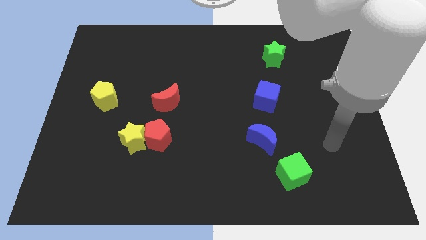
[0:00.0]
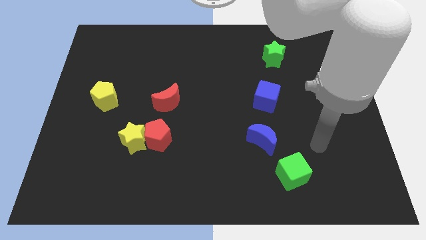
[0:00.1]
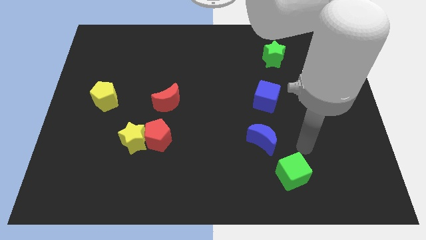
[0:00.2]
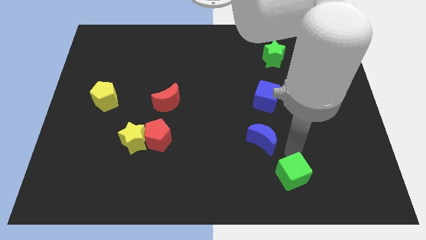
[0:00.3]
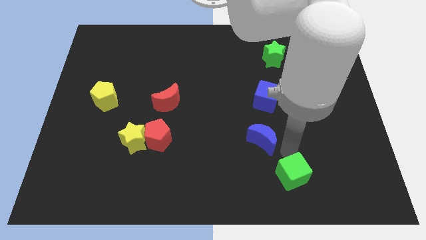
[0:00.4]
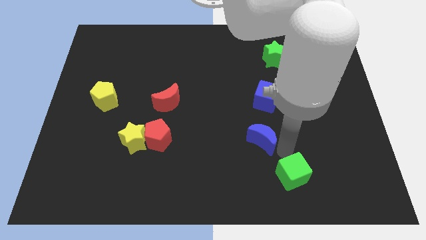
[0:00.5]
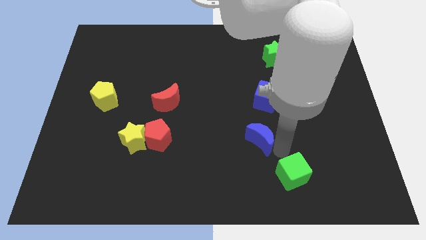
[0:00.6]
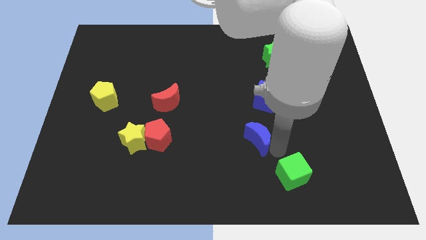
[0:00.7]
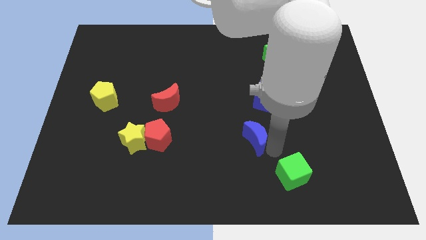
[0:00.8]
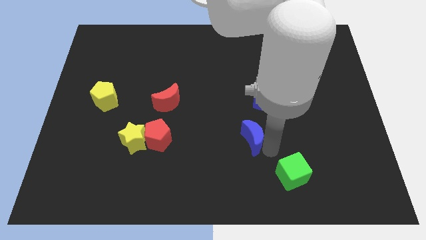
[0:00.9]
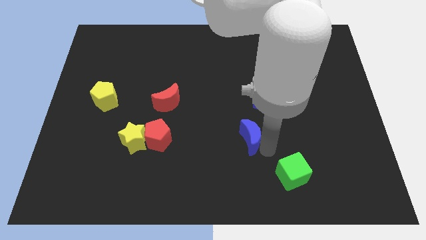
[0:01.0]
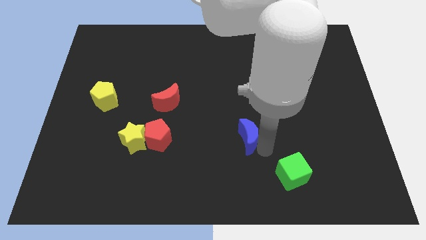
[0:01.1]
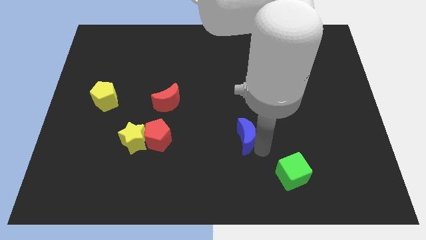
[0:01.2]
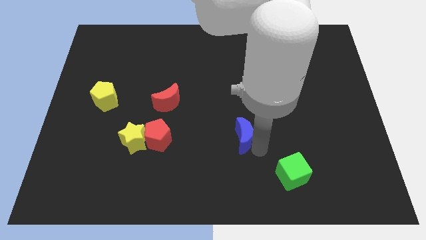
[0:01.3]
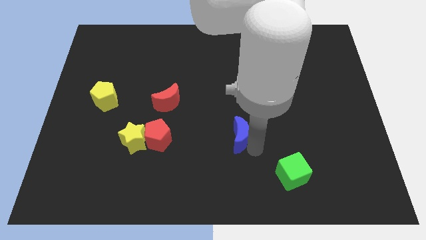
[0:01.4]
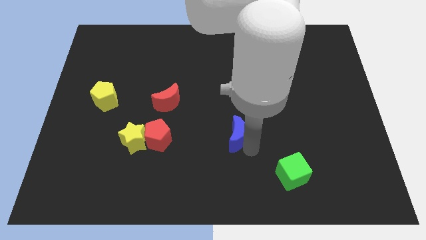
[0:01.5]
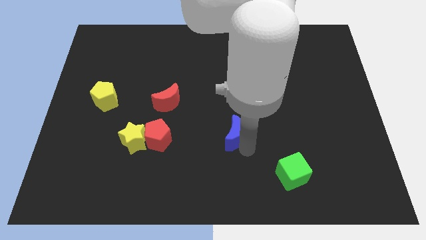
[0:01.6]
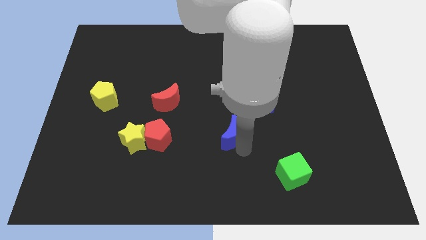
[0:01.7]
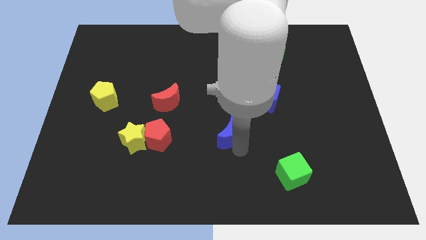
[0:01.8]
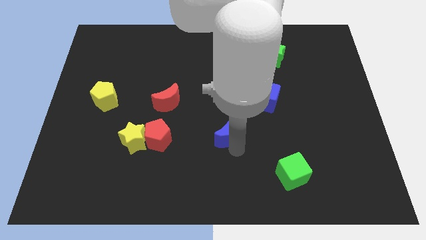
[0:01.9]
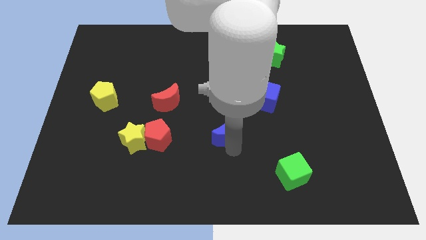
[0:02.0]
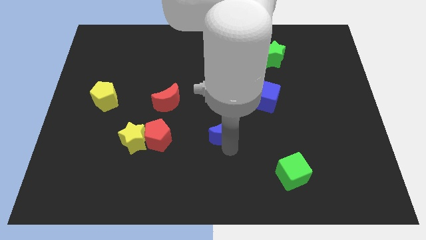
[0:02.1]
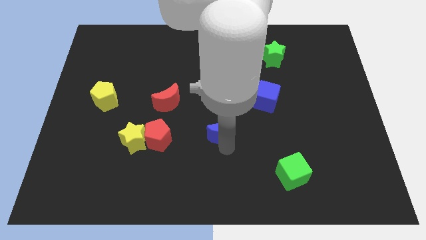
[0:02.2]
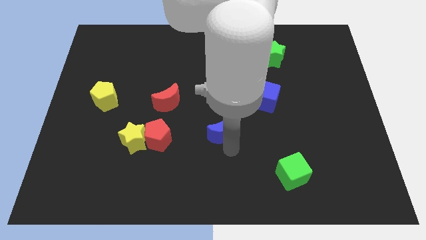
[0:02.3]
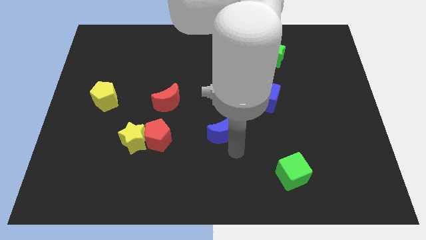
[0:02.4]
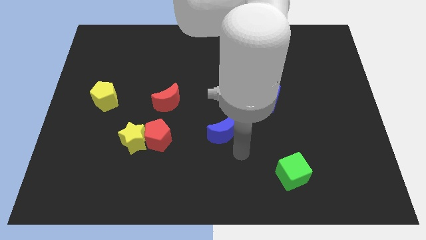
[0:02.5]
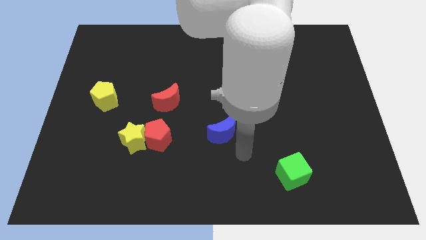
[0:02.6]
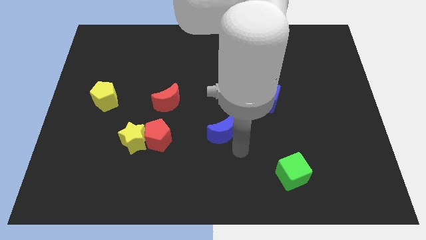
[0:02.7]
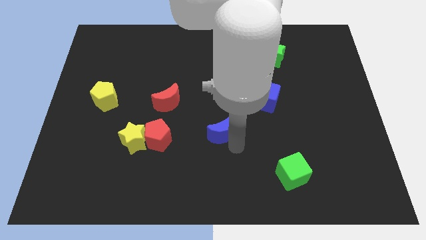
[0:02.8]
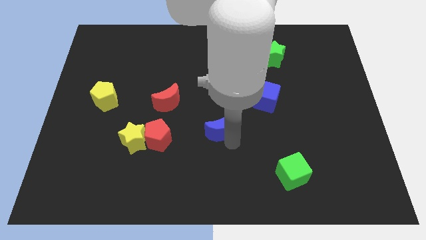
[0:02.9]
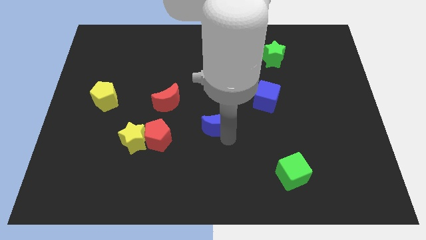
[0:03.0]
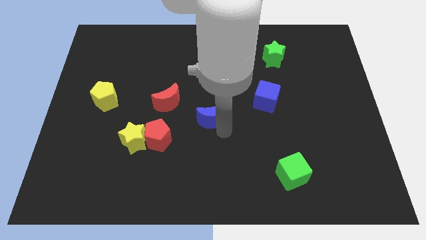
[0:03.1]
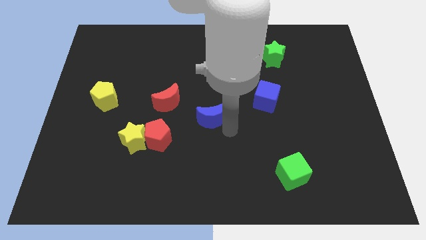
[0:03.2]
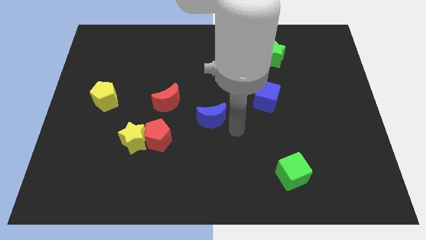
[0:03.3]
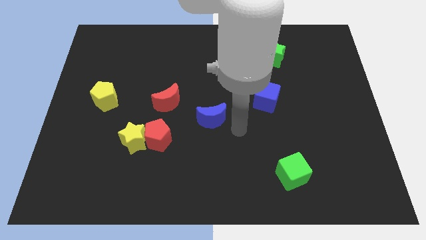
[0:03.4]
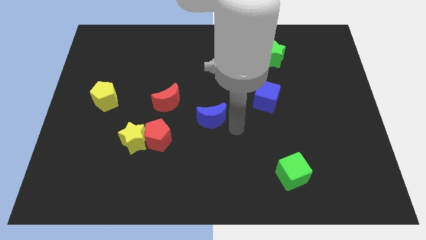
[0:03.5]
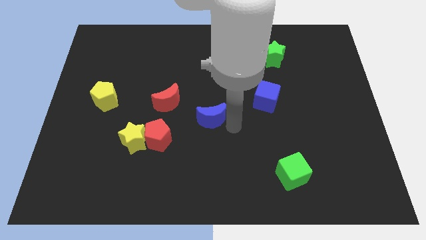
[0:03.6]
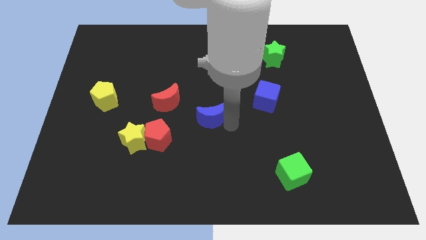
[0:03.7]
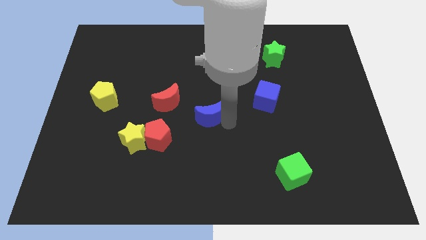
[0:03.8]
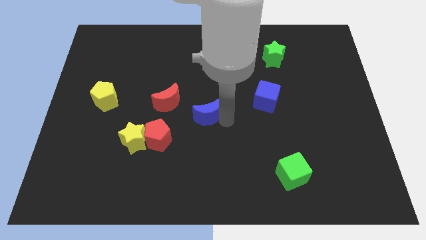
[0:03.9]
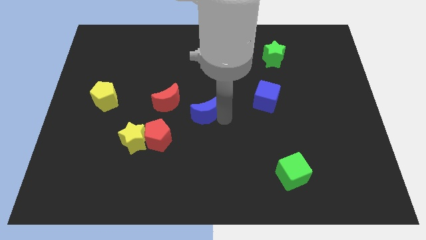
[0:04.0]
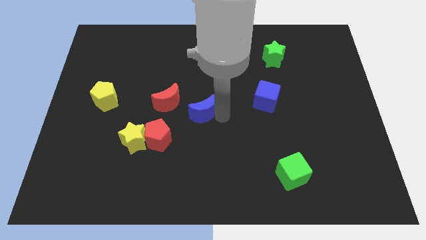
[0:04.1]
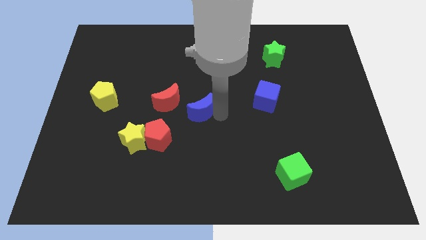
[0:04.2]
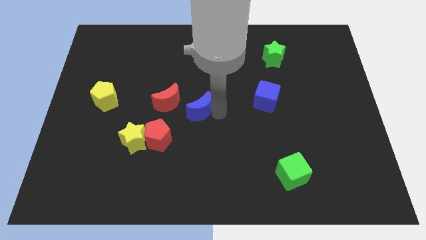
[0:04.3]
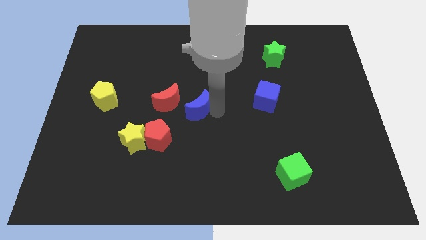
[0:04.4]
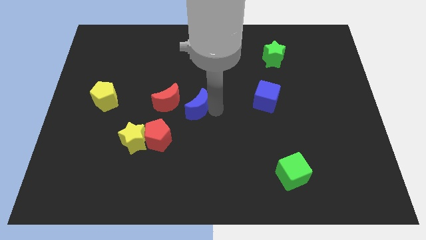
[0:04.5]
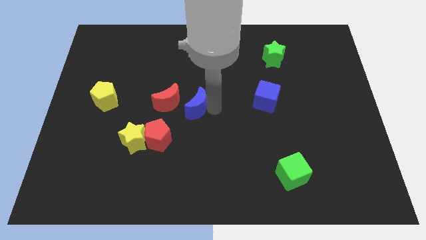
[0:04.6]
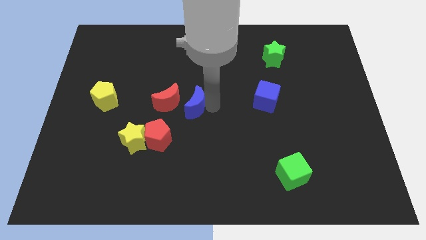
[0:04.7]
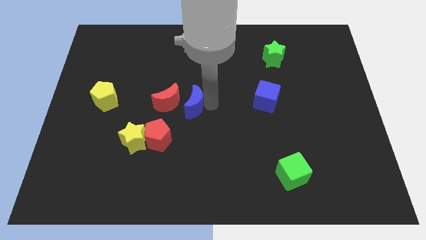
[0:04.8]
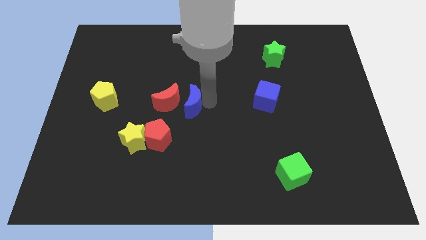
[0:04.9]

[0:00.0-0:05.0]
push the blue moon close to the red moon

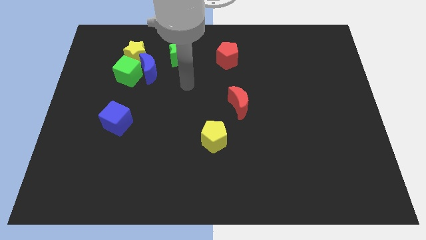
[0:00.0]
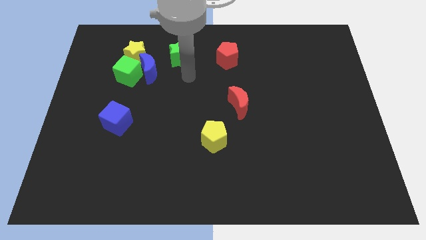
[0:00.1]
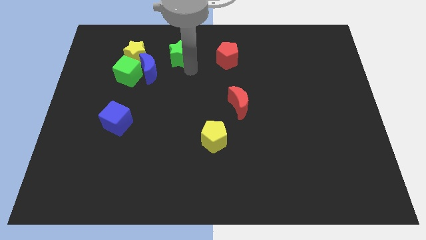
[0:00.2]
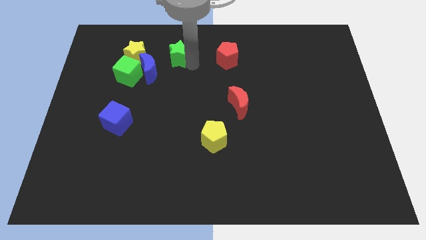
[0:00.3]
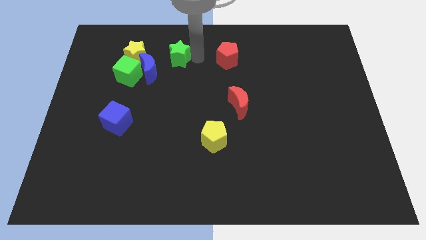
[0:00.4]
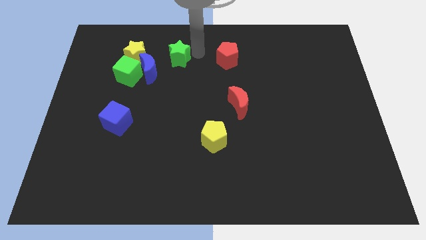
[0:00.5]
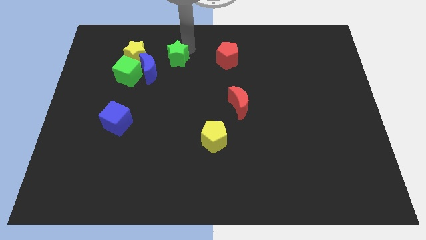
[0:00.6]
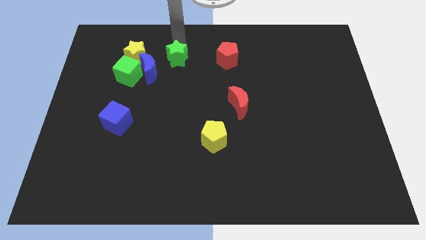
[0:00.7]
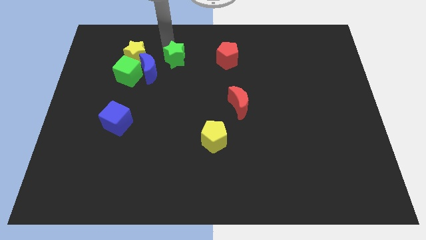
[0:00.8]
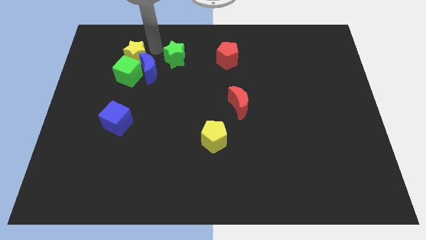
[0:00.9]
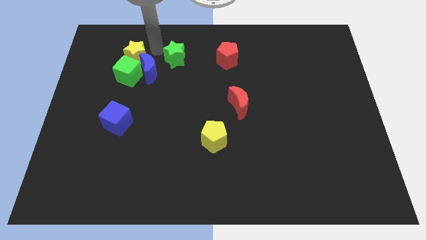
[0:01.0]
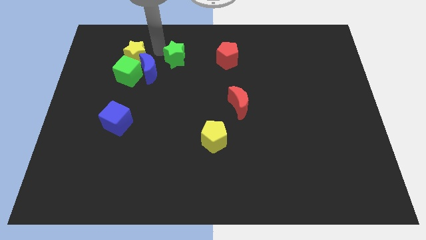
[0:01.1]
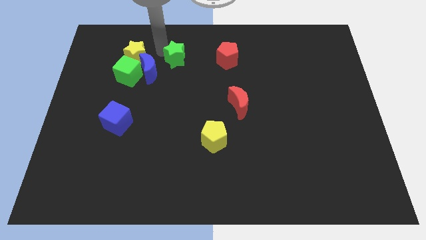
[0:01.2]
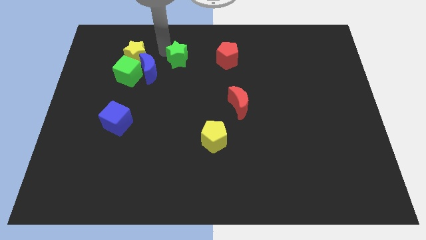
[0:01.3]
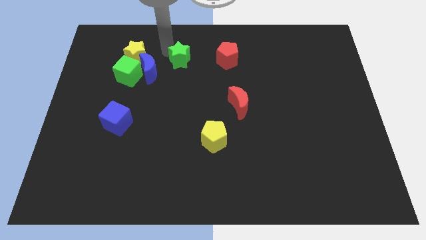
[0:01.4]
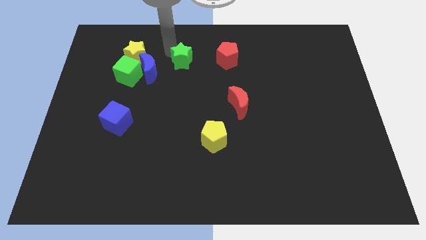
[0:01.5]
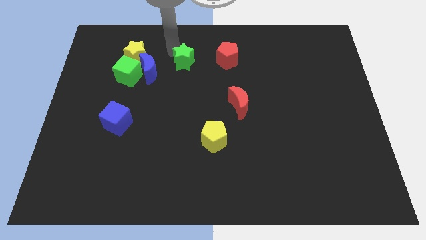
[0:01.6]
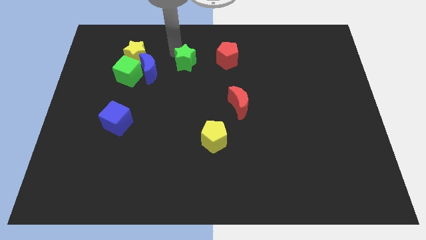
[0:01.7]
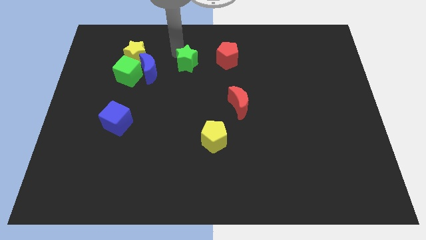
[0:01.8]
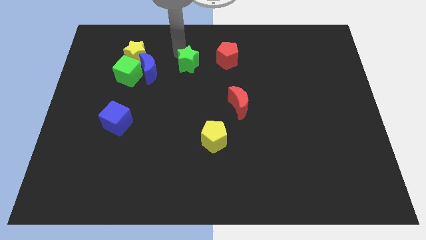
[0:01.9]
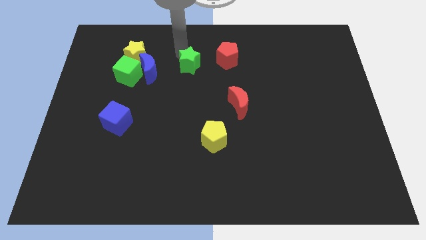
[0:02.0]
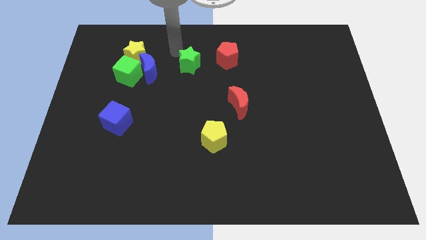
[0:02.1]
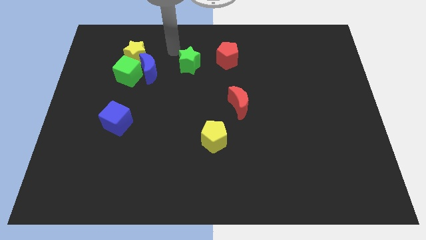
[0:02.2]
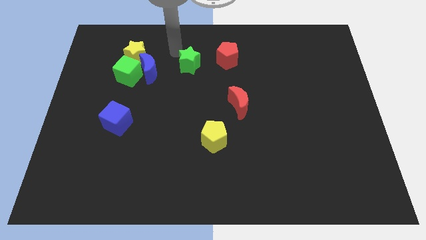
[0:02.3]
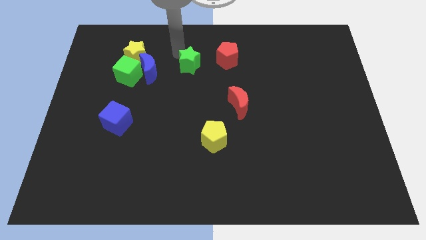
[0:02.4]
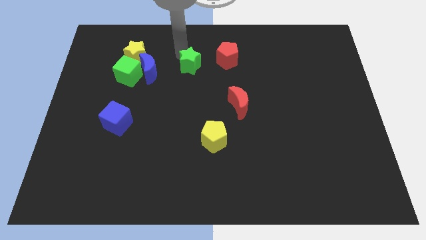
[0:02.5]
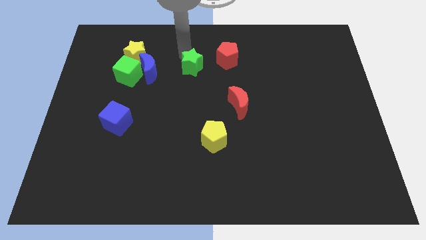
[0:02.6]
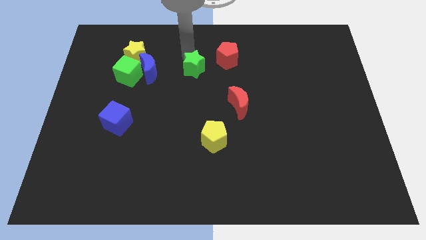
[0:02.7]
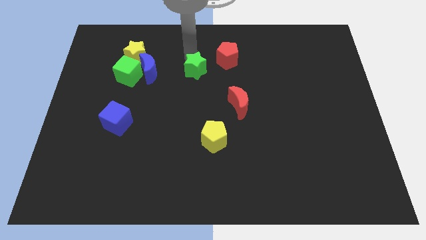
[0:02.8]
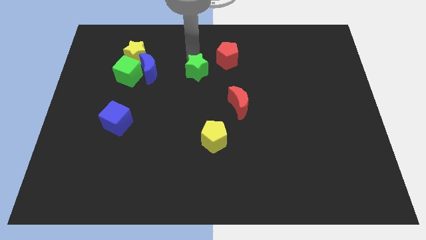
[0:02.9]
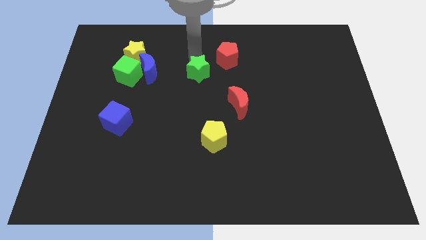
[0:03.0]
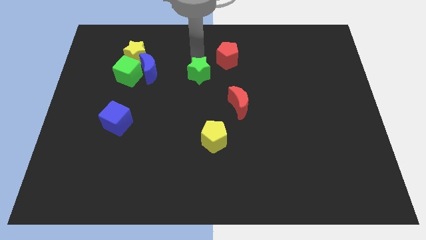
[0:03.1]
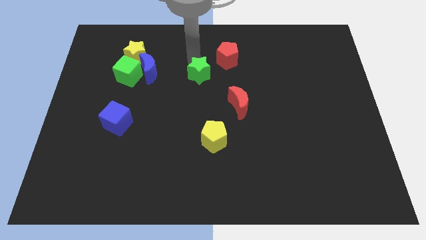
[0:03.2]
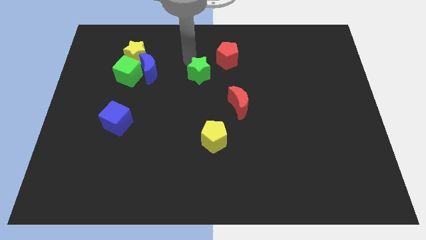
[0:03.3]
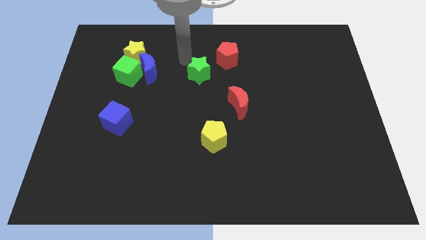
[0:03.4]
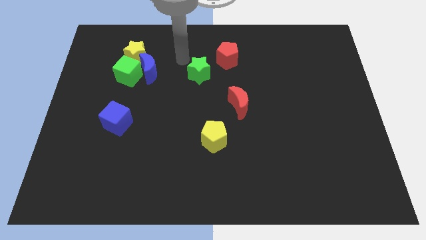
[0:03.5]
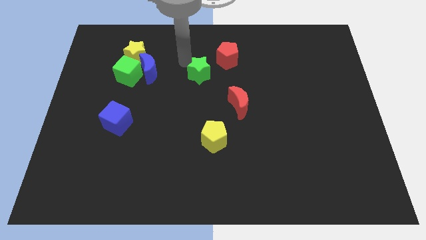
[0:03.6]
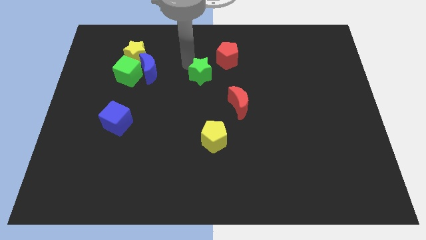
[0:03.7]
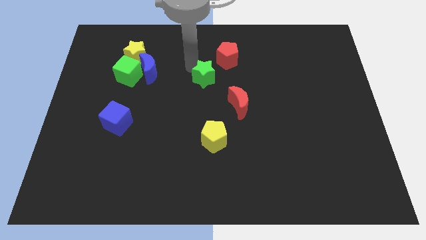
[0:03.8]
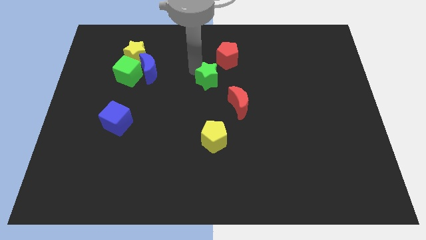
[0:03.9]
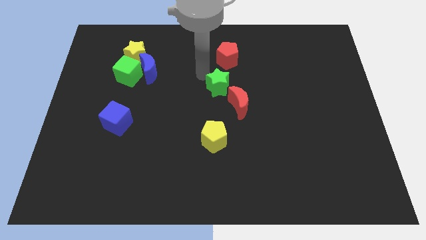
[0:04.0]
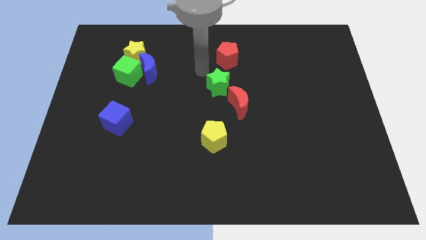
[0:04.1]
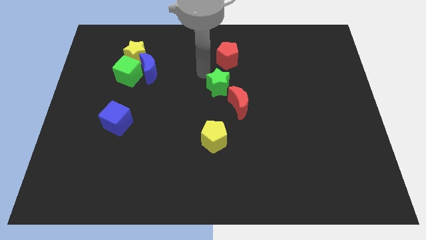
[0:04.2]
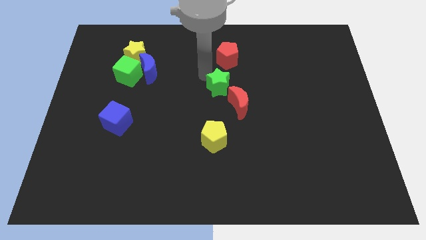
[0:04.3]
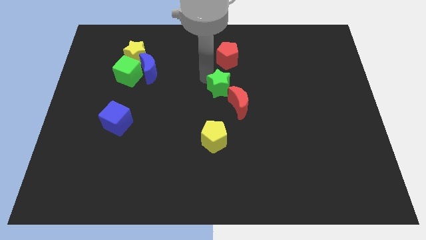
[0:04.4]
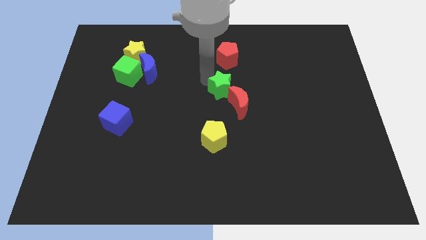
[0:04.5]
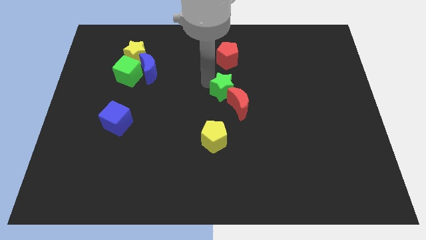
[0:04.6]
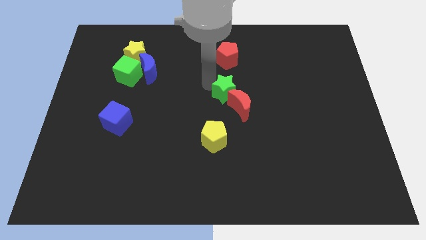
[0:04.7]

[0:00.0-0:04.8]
push the green star towards the red moon
